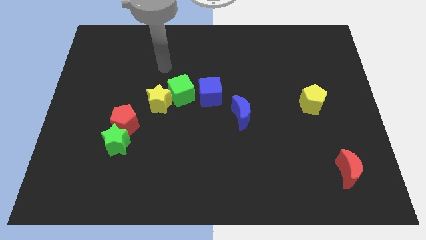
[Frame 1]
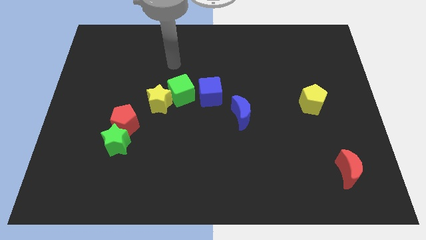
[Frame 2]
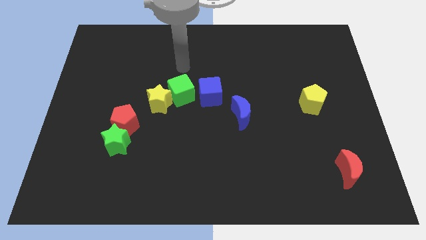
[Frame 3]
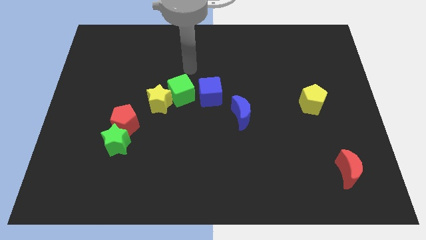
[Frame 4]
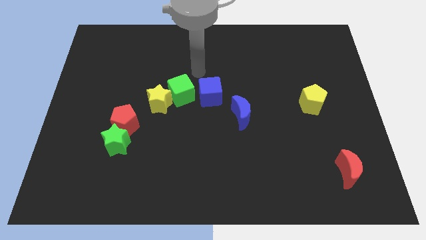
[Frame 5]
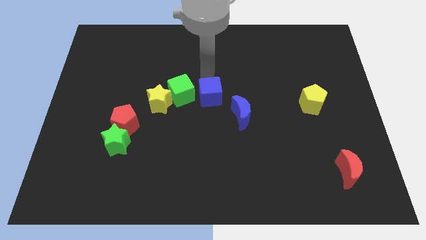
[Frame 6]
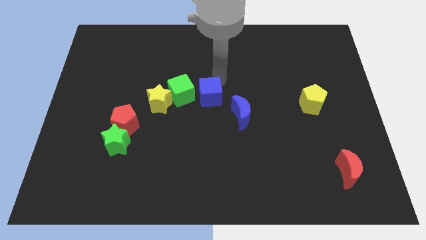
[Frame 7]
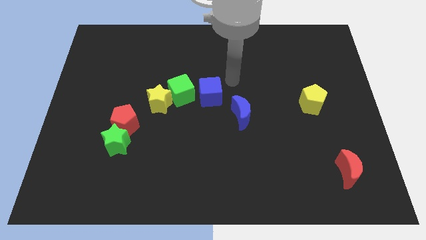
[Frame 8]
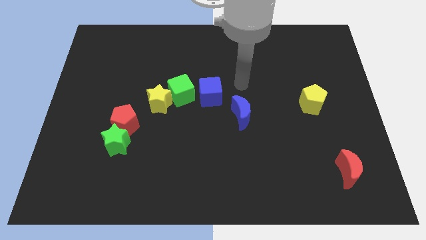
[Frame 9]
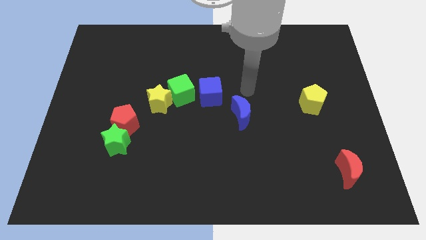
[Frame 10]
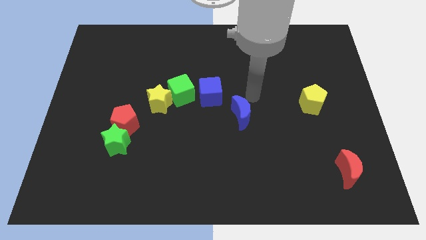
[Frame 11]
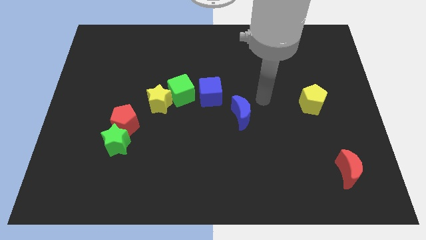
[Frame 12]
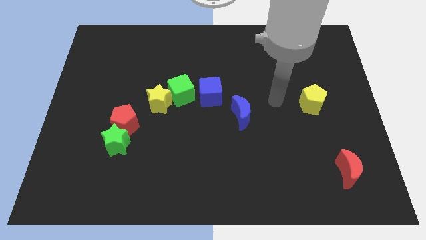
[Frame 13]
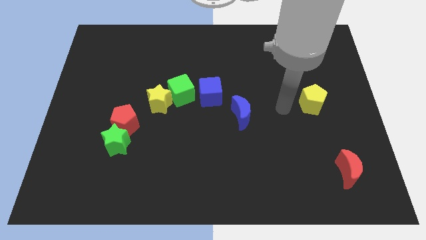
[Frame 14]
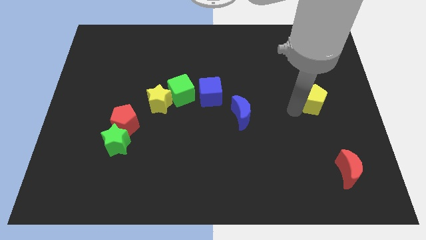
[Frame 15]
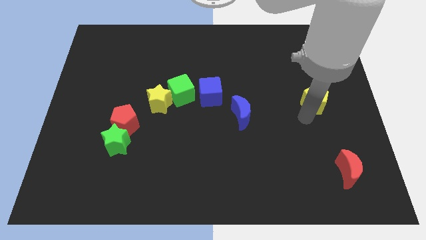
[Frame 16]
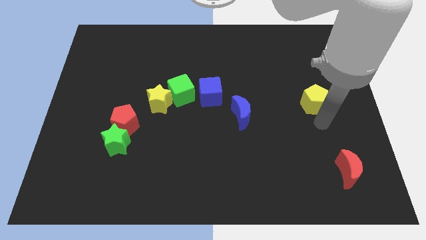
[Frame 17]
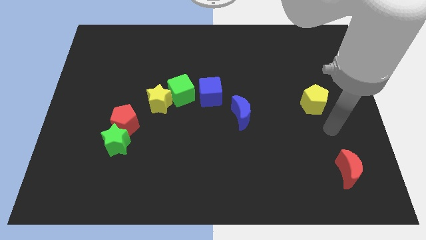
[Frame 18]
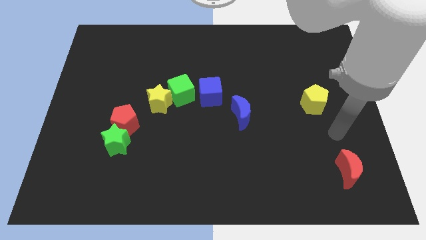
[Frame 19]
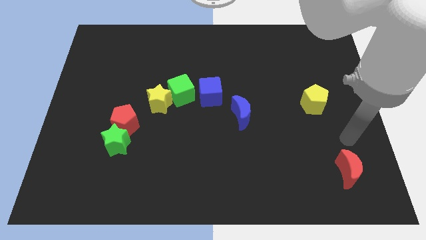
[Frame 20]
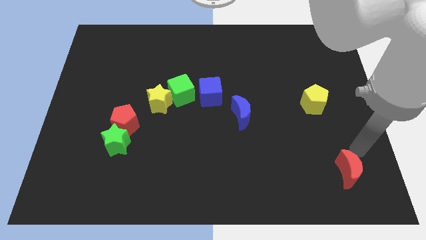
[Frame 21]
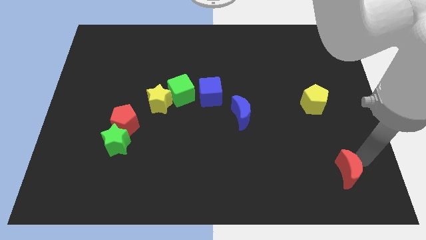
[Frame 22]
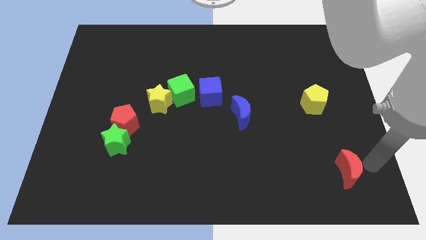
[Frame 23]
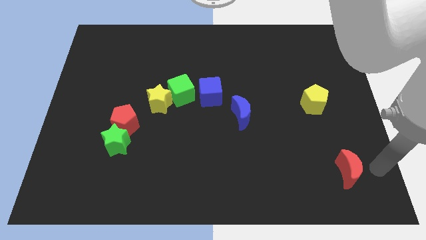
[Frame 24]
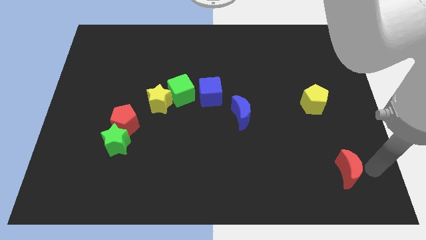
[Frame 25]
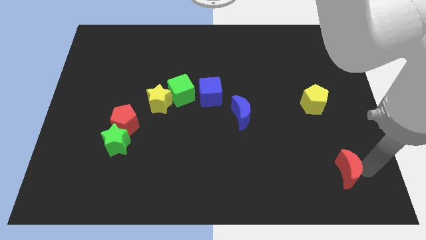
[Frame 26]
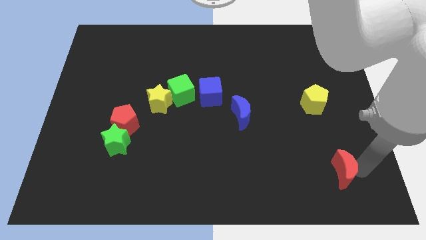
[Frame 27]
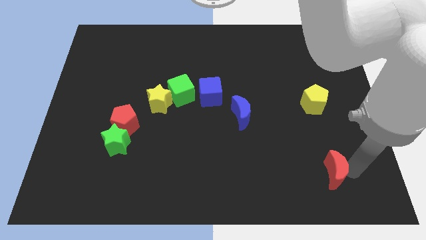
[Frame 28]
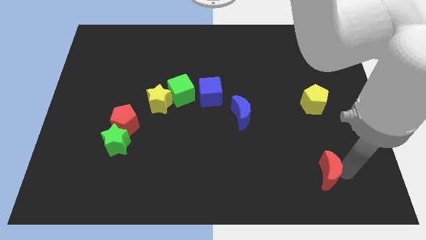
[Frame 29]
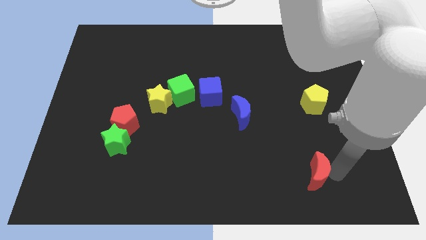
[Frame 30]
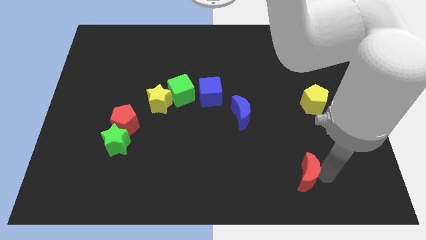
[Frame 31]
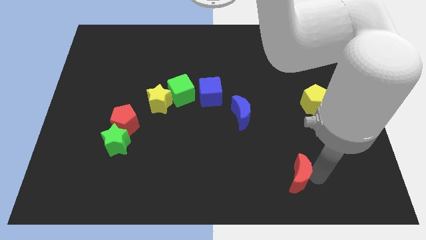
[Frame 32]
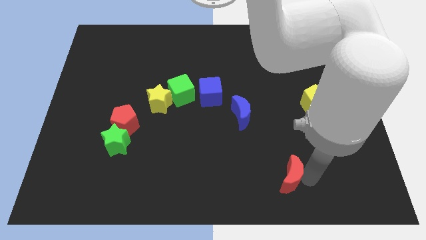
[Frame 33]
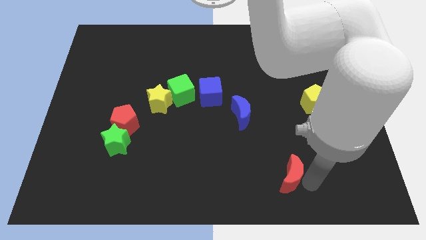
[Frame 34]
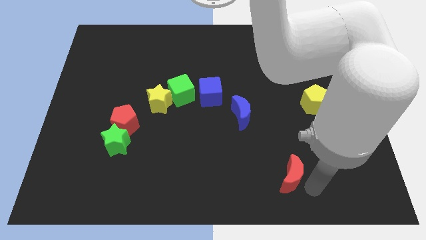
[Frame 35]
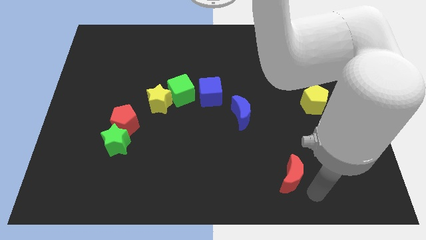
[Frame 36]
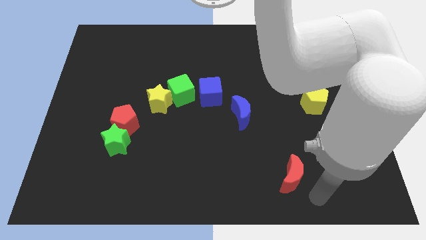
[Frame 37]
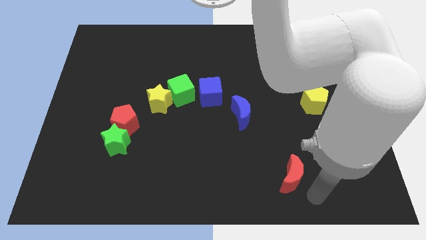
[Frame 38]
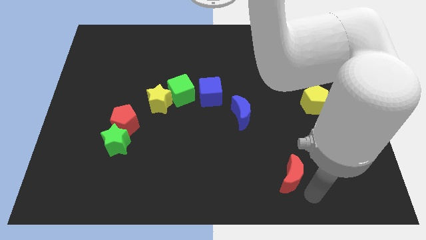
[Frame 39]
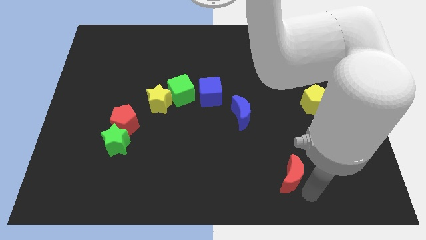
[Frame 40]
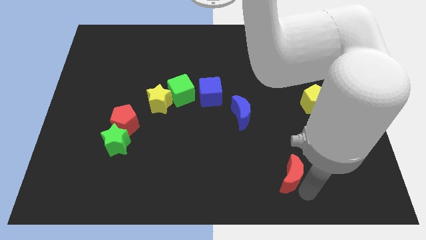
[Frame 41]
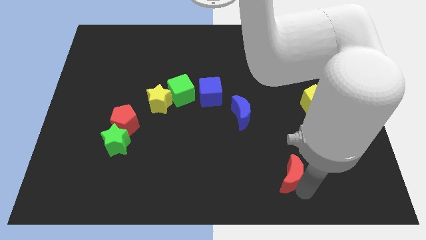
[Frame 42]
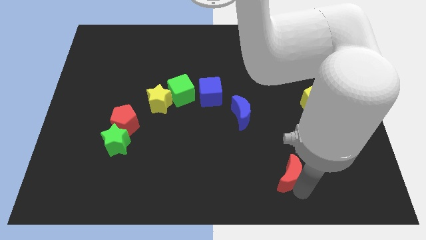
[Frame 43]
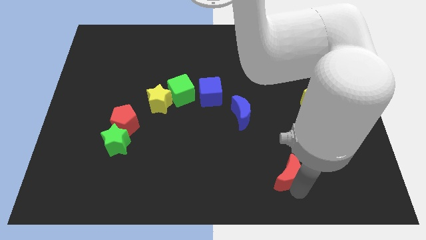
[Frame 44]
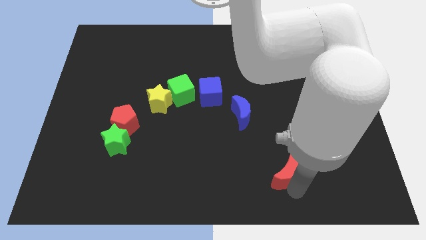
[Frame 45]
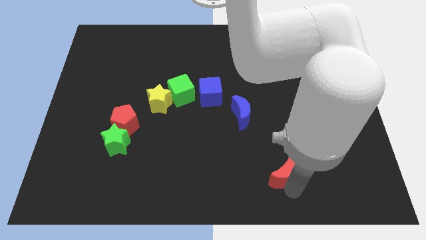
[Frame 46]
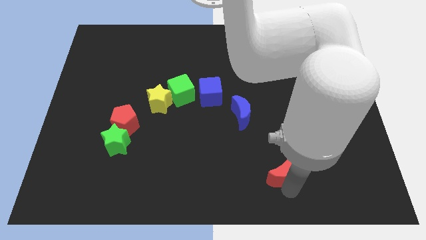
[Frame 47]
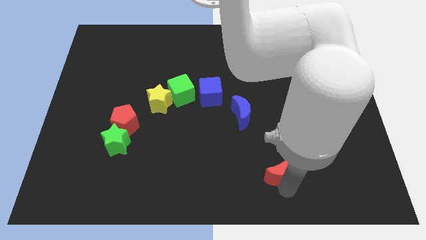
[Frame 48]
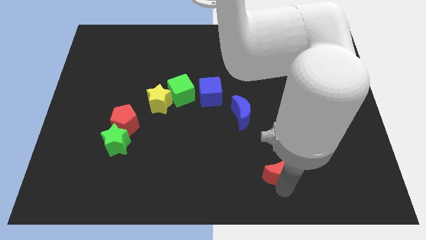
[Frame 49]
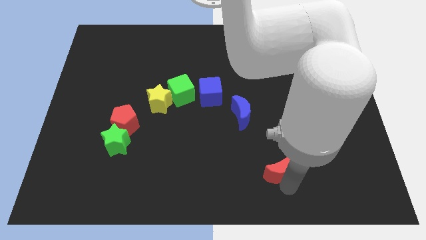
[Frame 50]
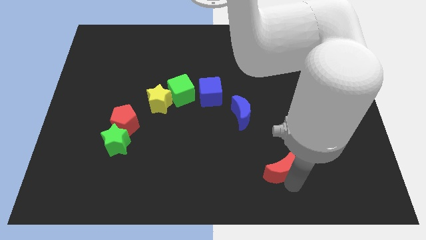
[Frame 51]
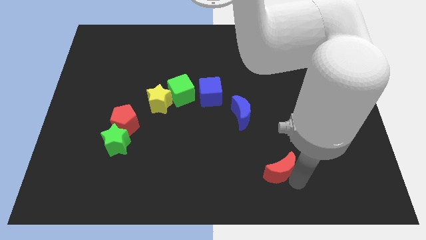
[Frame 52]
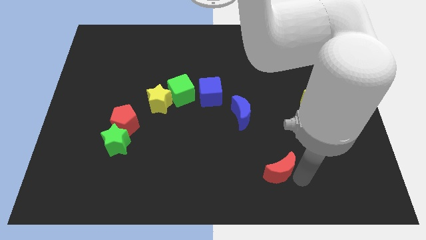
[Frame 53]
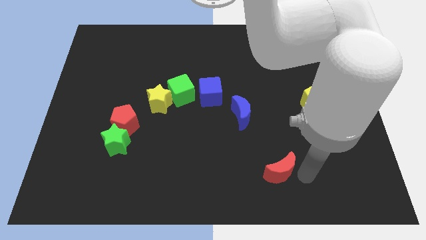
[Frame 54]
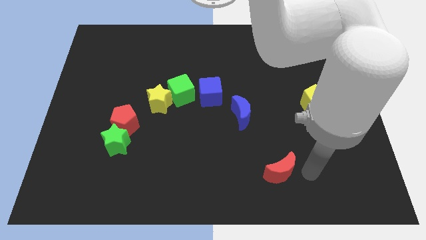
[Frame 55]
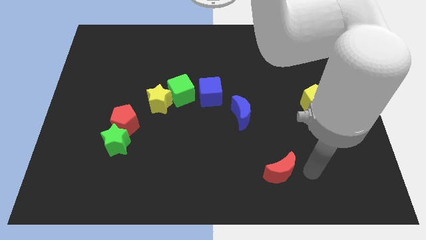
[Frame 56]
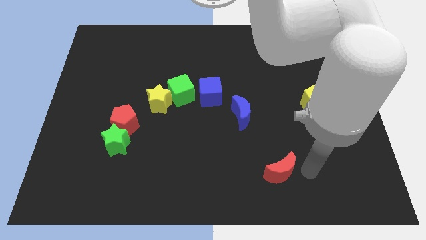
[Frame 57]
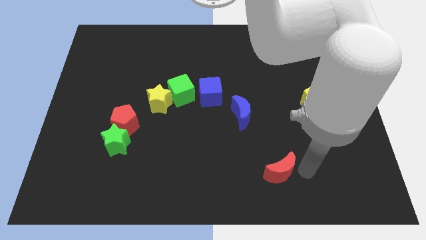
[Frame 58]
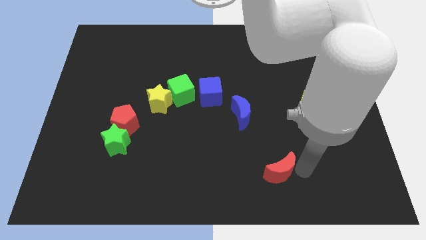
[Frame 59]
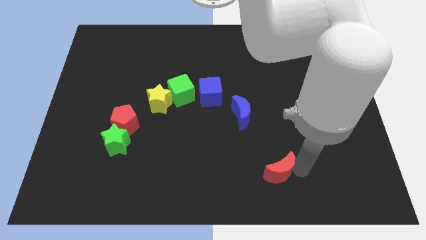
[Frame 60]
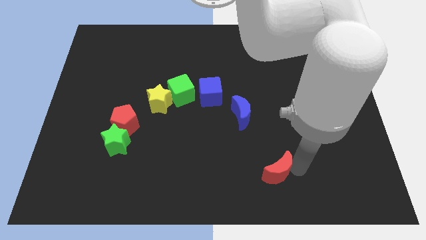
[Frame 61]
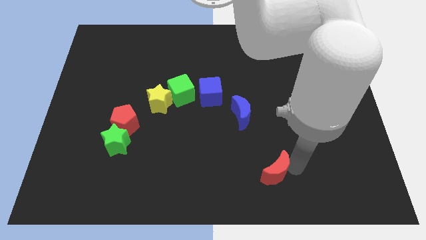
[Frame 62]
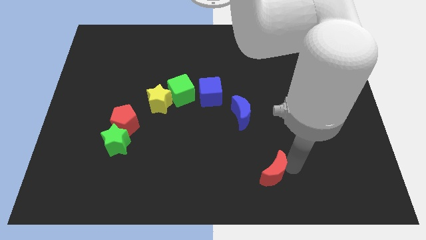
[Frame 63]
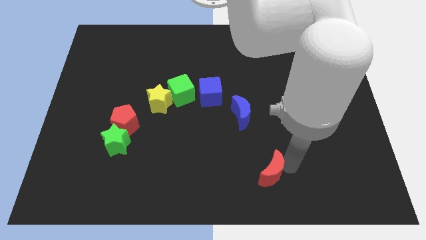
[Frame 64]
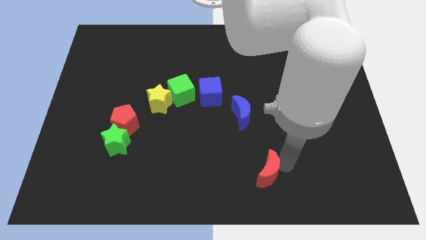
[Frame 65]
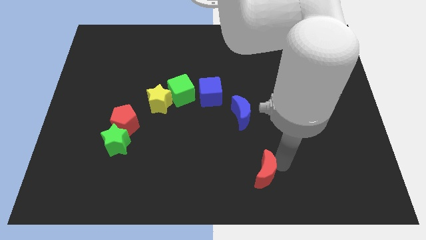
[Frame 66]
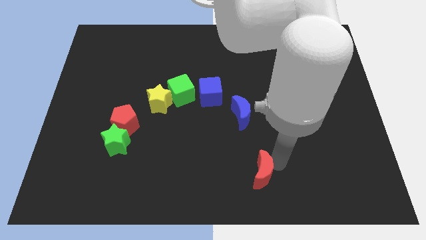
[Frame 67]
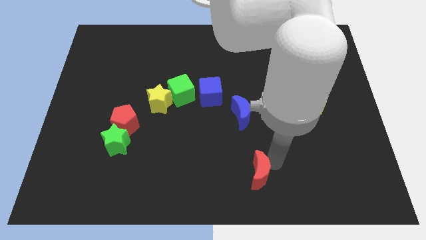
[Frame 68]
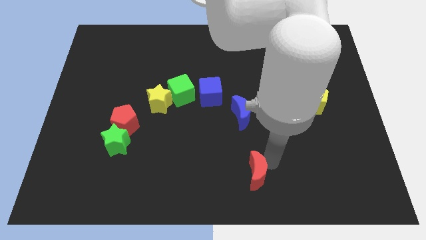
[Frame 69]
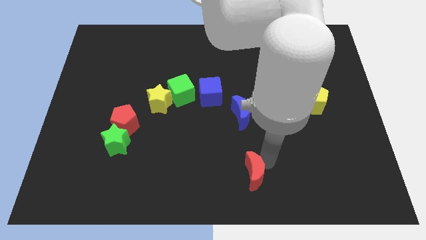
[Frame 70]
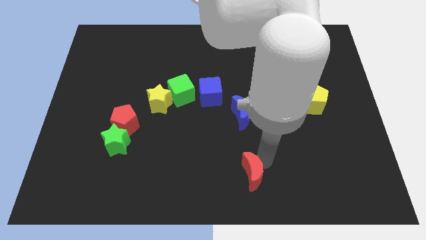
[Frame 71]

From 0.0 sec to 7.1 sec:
slide the red moon left

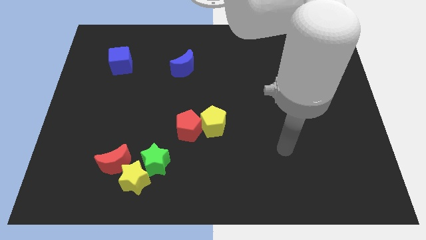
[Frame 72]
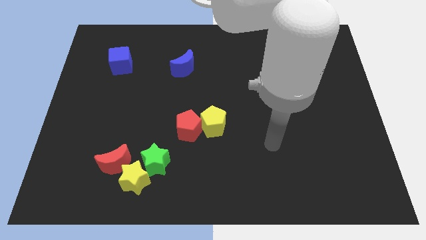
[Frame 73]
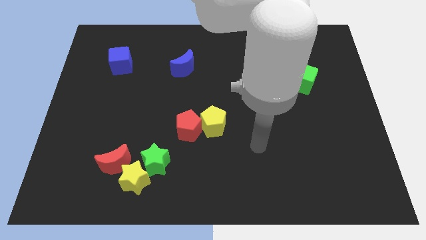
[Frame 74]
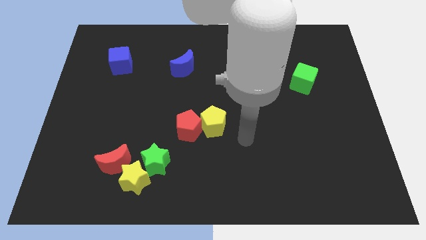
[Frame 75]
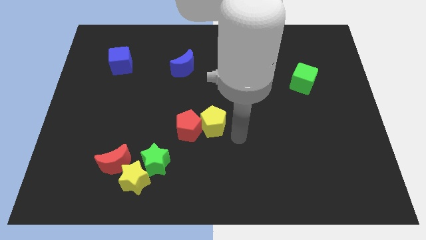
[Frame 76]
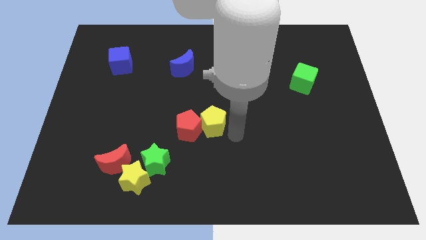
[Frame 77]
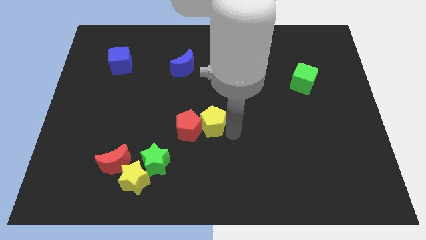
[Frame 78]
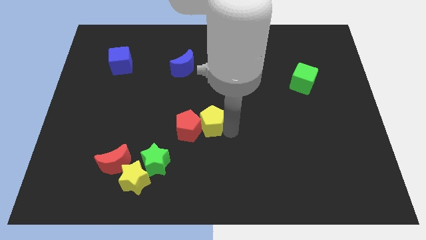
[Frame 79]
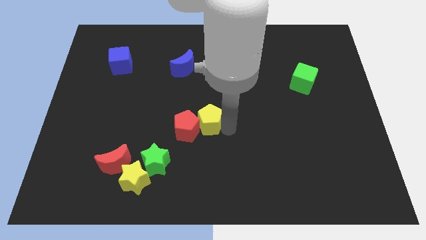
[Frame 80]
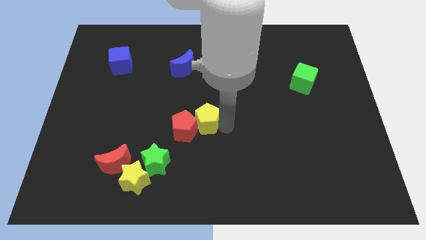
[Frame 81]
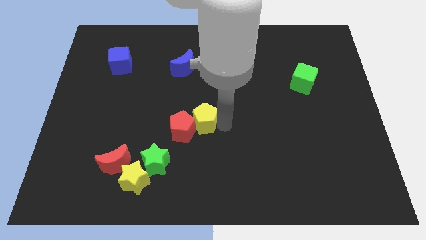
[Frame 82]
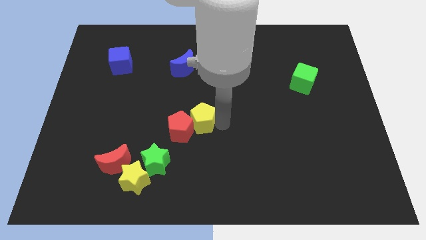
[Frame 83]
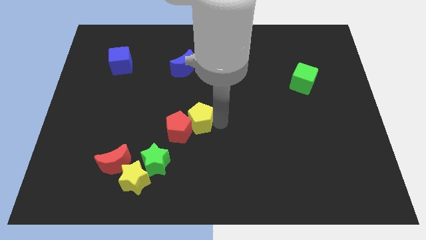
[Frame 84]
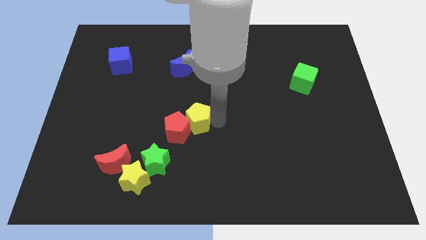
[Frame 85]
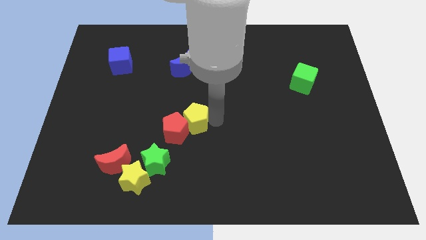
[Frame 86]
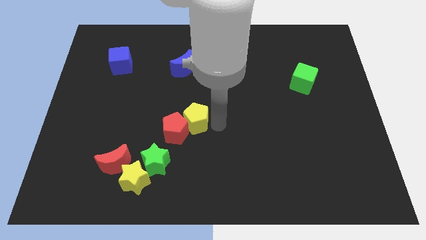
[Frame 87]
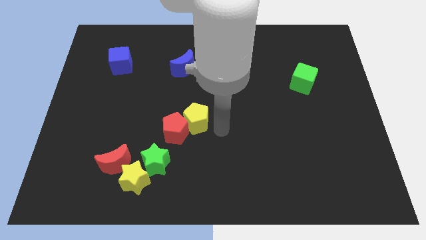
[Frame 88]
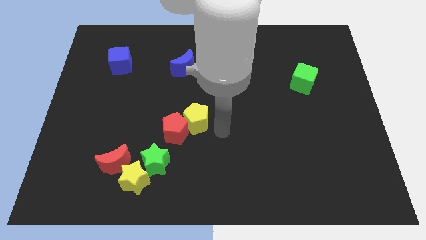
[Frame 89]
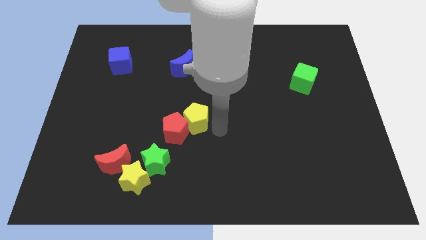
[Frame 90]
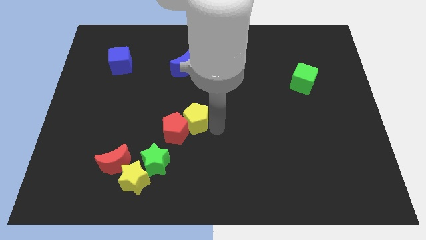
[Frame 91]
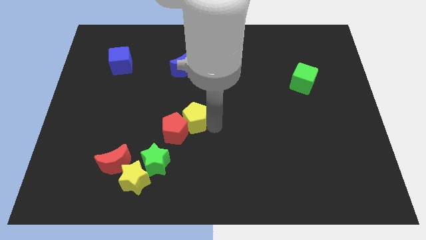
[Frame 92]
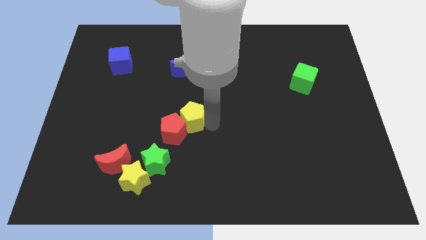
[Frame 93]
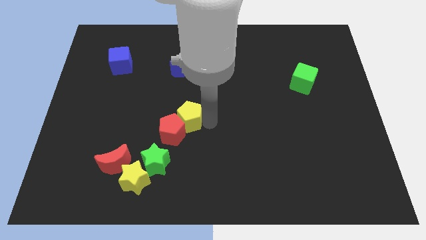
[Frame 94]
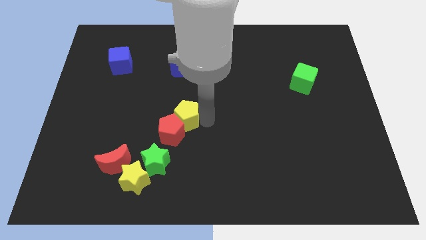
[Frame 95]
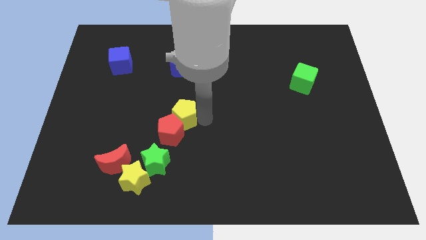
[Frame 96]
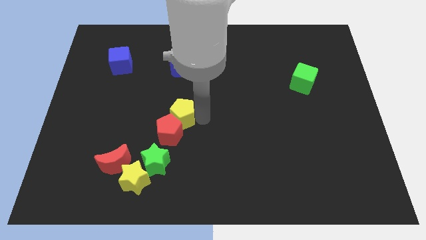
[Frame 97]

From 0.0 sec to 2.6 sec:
slightly move the yellow pentagon to the left
